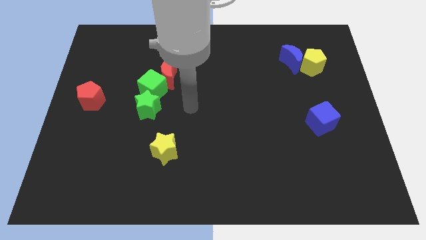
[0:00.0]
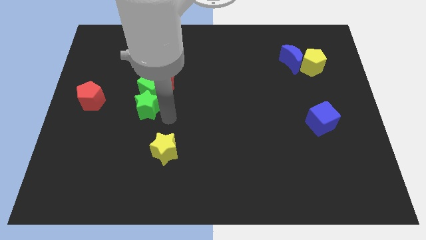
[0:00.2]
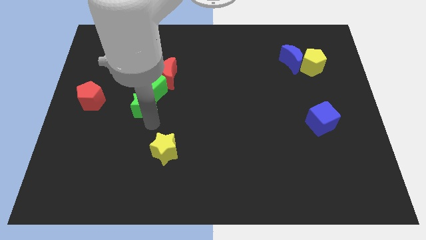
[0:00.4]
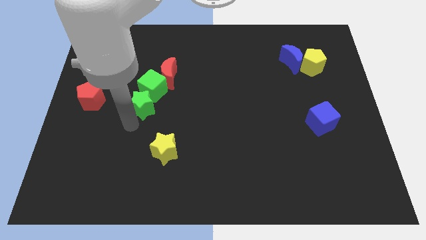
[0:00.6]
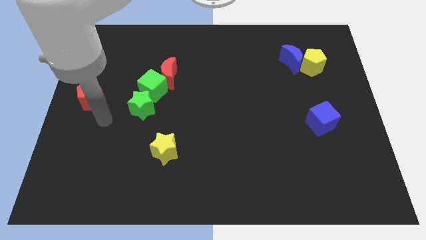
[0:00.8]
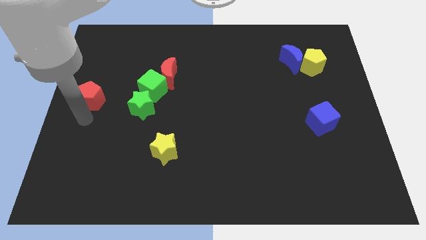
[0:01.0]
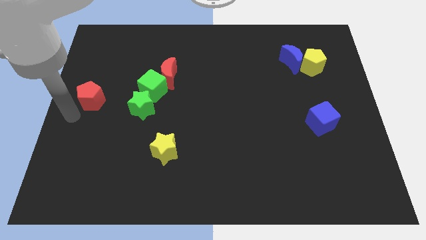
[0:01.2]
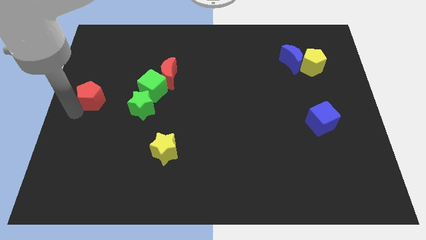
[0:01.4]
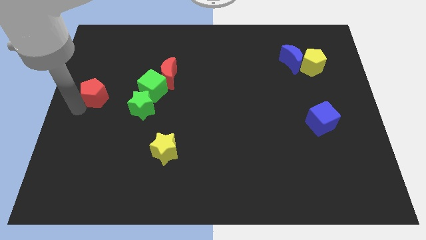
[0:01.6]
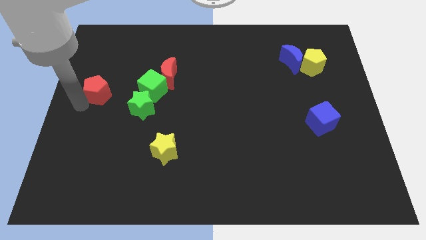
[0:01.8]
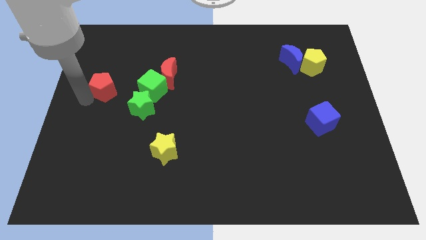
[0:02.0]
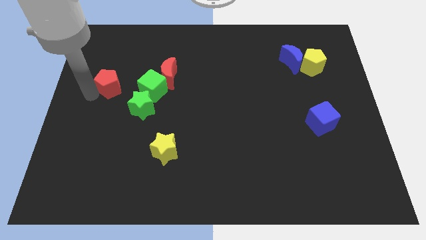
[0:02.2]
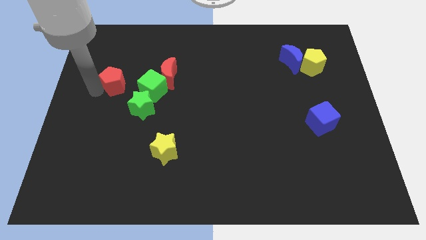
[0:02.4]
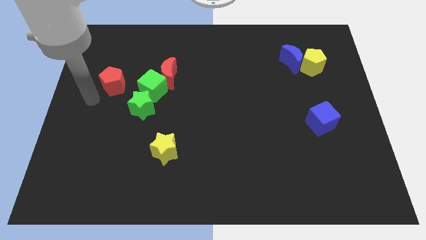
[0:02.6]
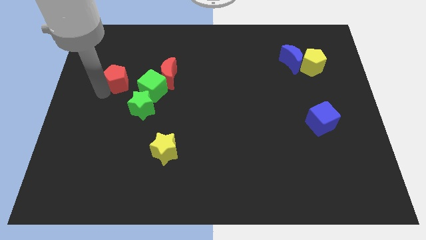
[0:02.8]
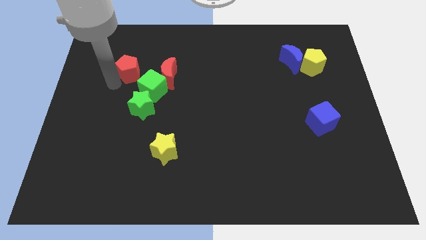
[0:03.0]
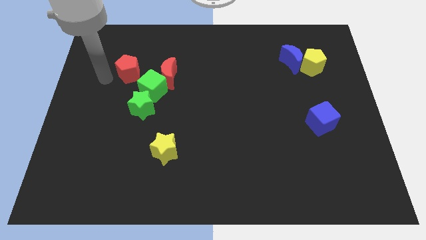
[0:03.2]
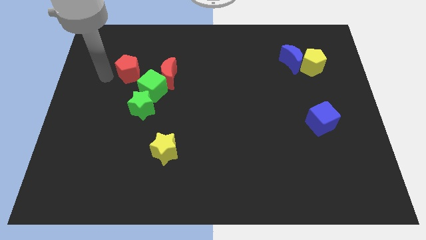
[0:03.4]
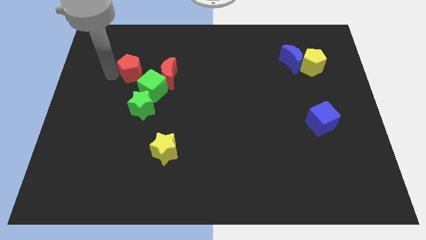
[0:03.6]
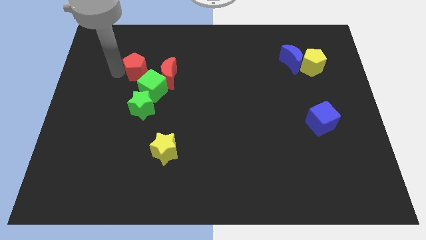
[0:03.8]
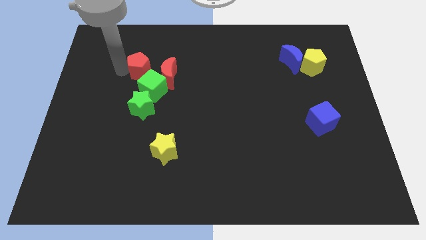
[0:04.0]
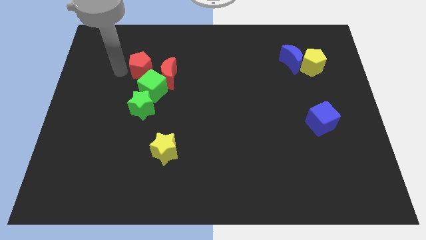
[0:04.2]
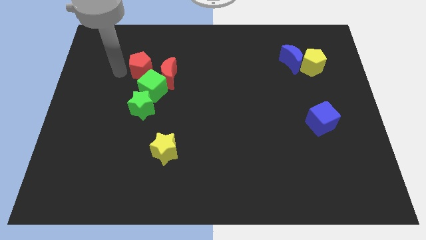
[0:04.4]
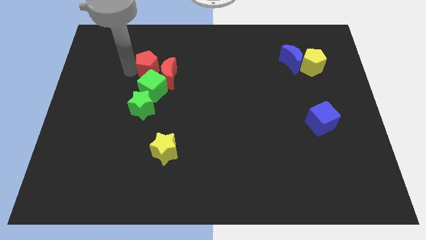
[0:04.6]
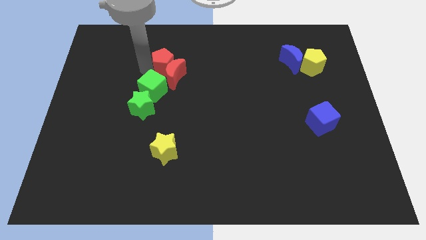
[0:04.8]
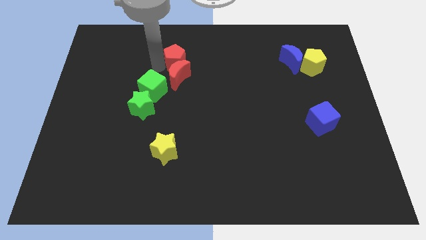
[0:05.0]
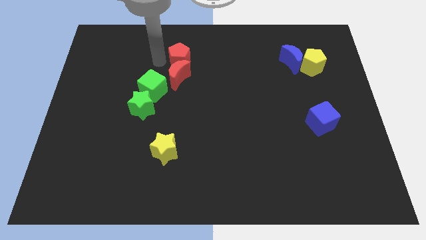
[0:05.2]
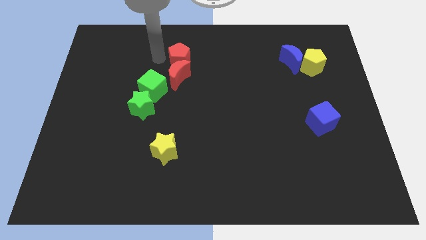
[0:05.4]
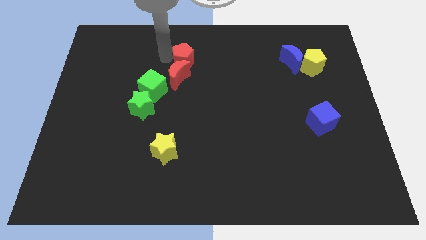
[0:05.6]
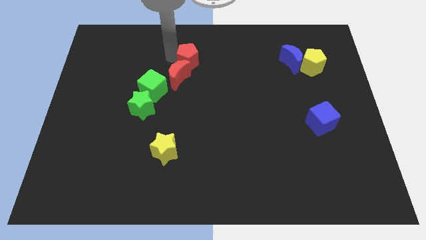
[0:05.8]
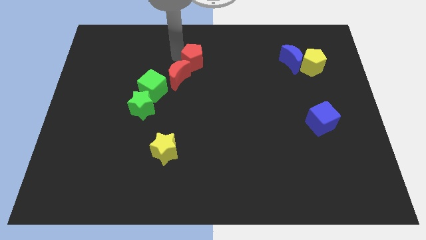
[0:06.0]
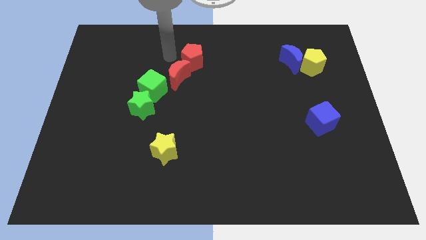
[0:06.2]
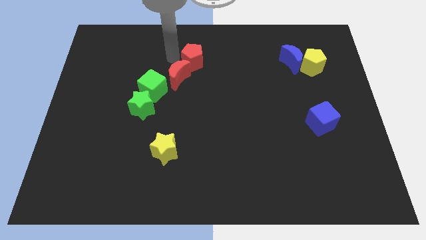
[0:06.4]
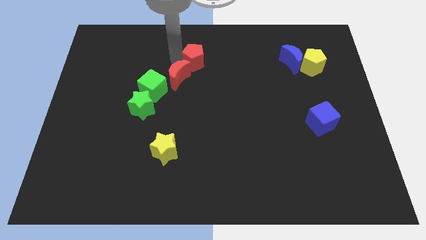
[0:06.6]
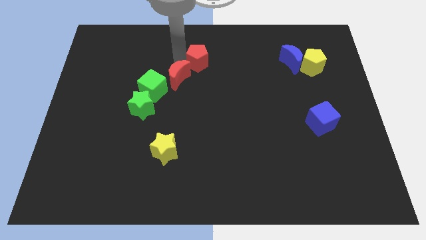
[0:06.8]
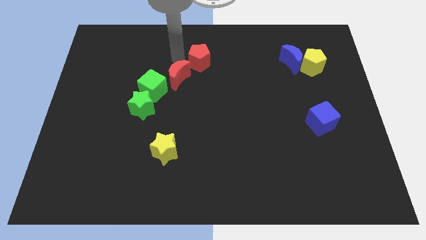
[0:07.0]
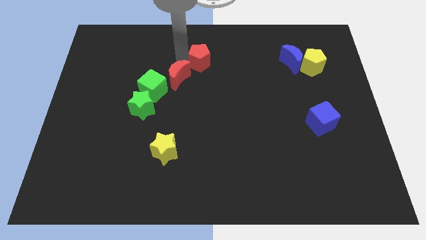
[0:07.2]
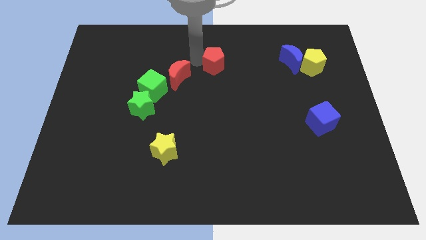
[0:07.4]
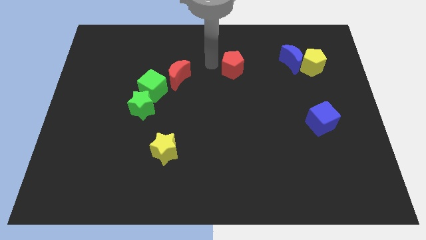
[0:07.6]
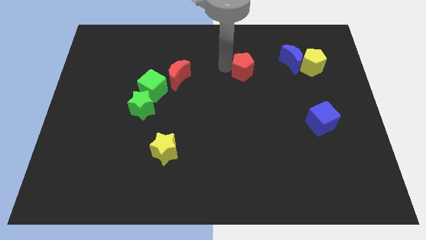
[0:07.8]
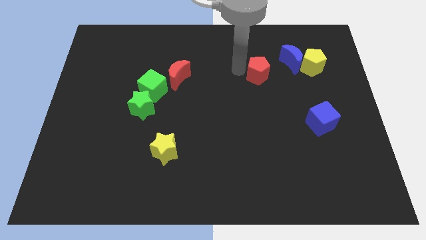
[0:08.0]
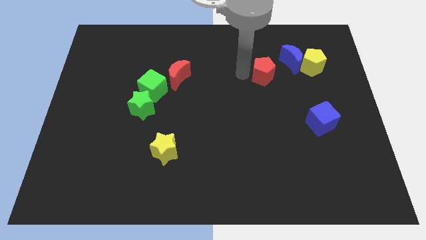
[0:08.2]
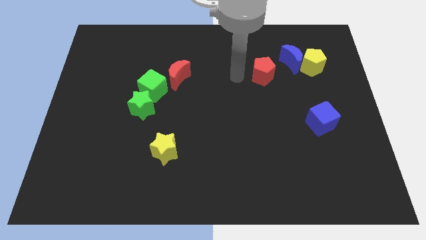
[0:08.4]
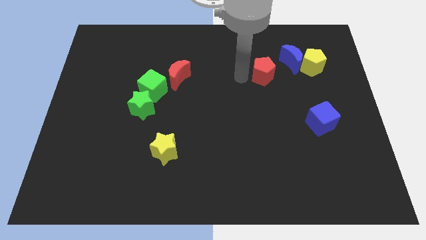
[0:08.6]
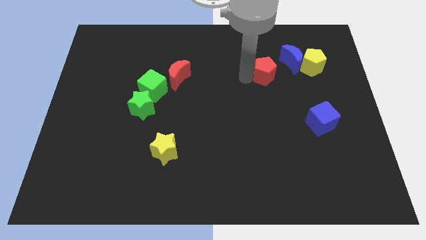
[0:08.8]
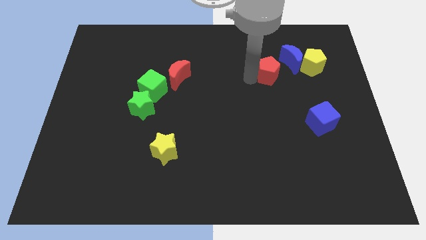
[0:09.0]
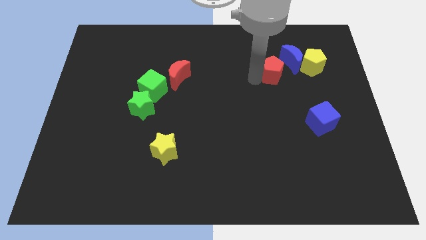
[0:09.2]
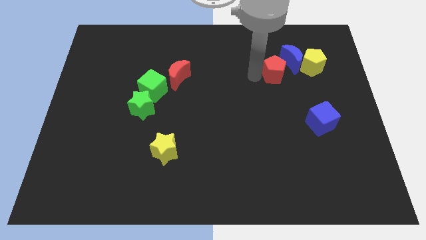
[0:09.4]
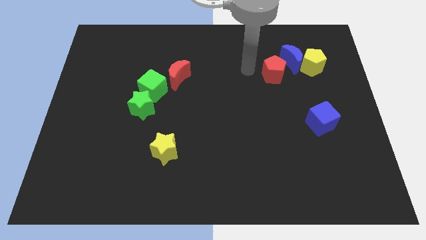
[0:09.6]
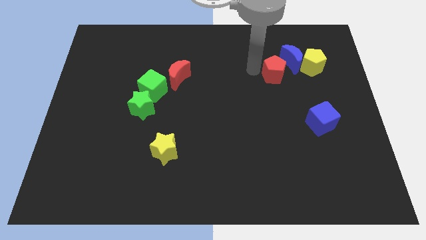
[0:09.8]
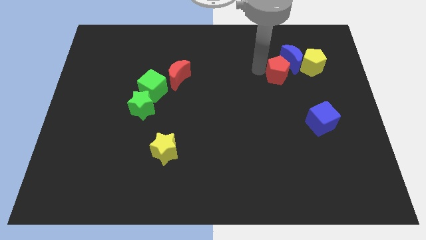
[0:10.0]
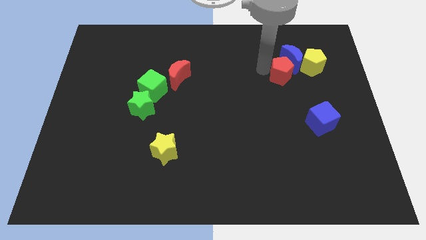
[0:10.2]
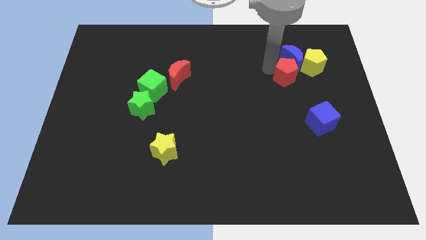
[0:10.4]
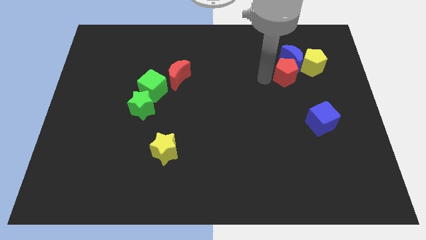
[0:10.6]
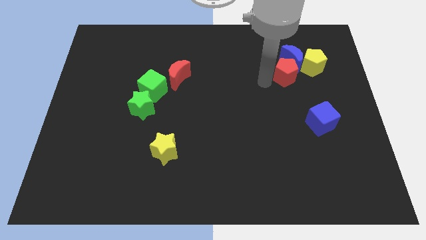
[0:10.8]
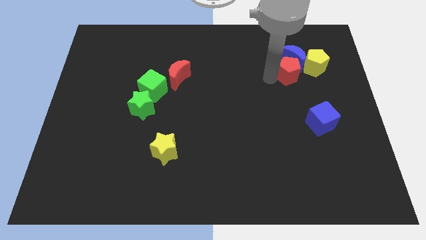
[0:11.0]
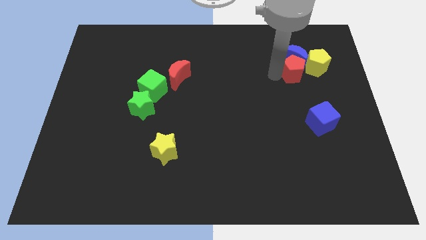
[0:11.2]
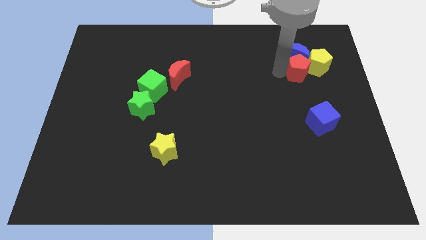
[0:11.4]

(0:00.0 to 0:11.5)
move the red pentagon to the yellow pentagon

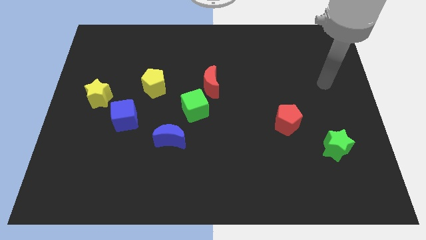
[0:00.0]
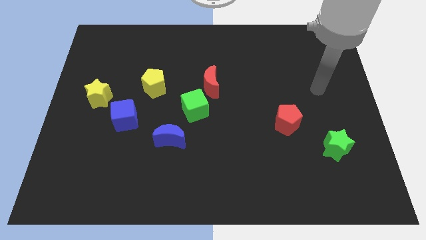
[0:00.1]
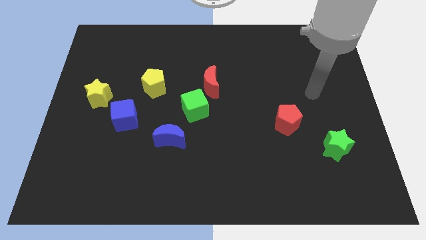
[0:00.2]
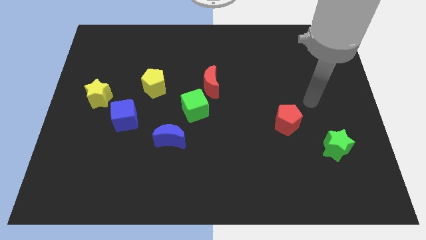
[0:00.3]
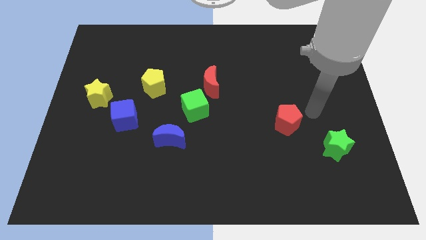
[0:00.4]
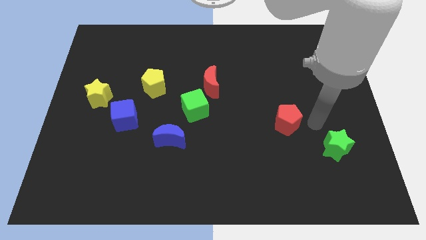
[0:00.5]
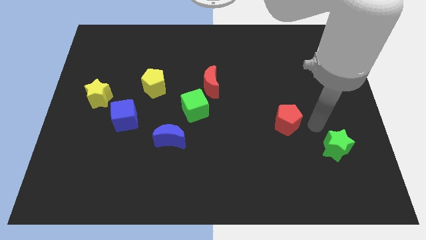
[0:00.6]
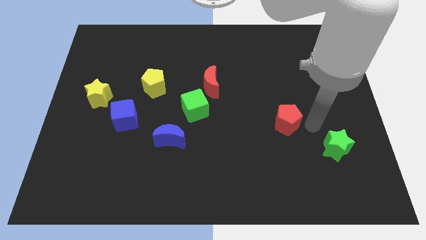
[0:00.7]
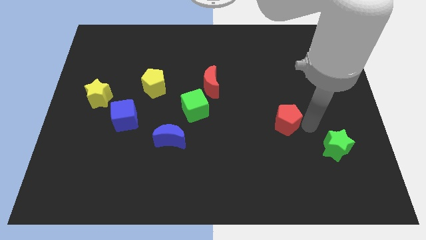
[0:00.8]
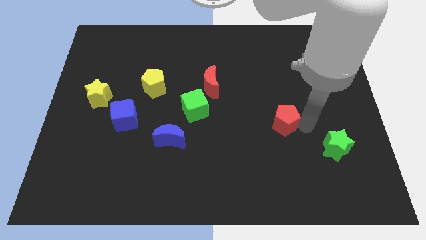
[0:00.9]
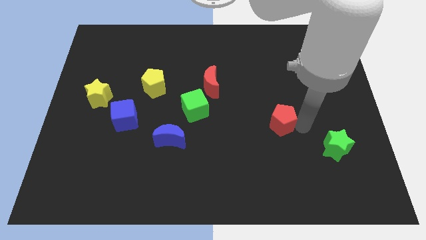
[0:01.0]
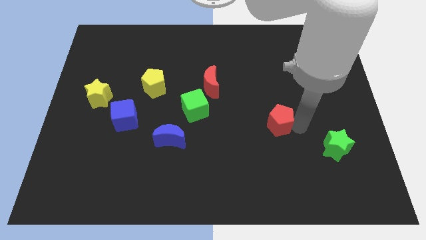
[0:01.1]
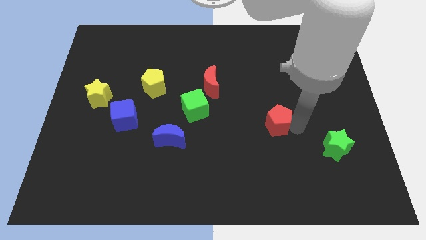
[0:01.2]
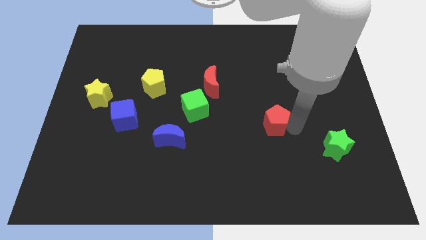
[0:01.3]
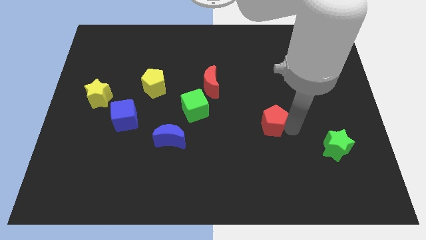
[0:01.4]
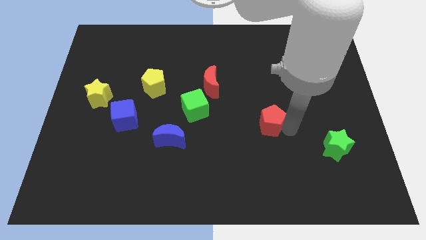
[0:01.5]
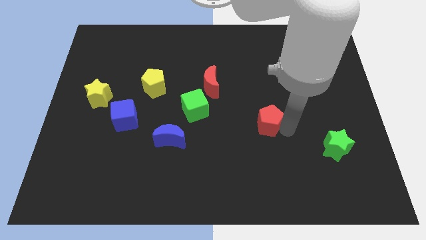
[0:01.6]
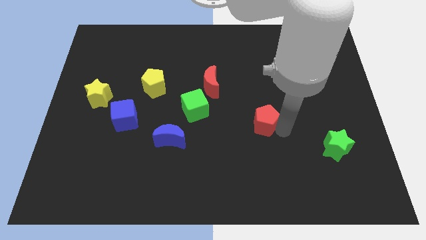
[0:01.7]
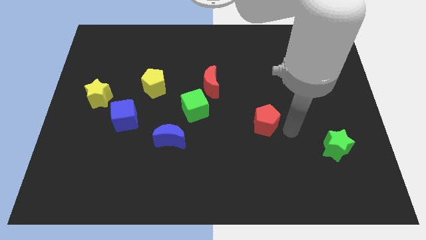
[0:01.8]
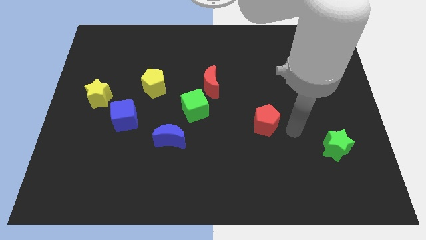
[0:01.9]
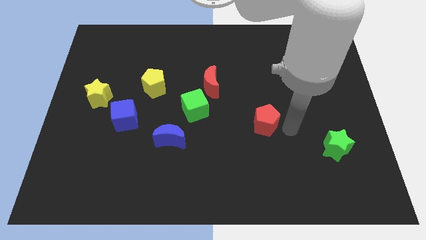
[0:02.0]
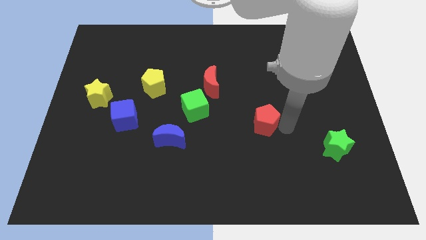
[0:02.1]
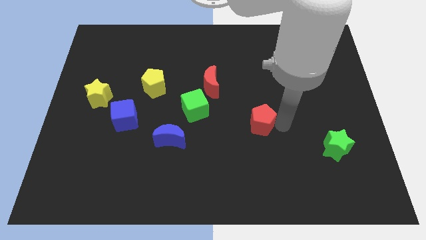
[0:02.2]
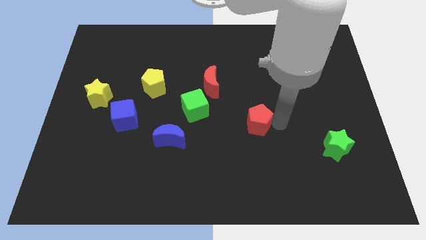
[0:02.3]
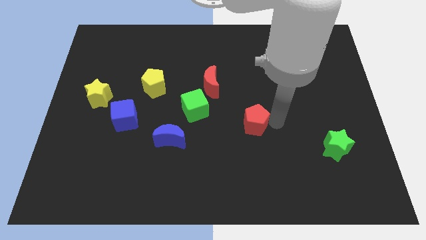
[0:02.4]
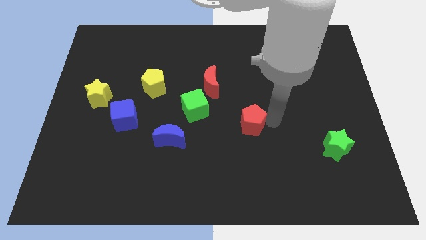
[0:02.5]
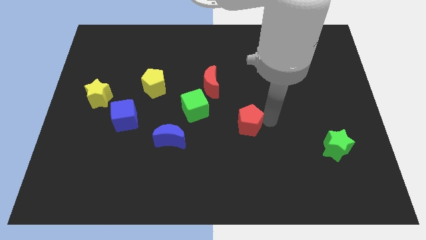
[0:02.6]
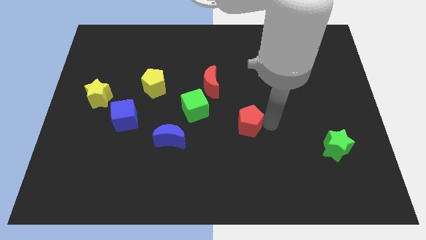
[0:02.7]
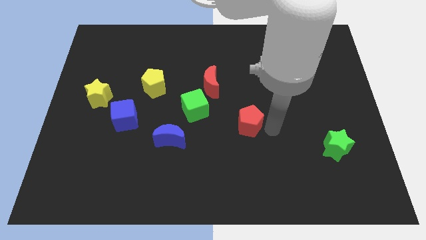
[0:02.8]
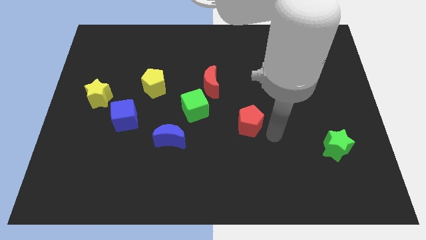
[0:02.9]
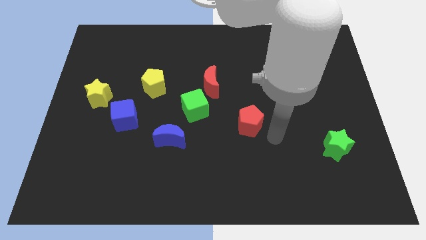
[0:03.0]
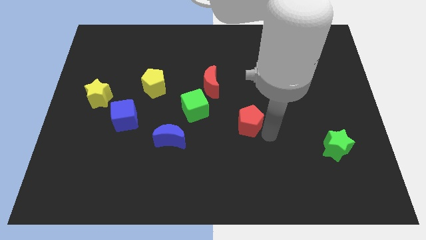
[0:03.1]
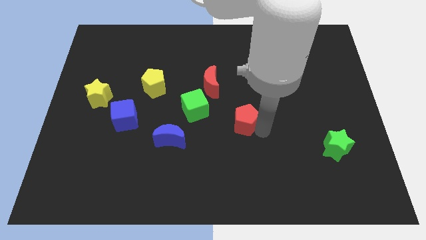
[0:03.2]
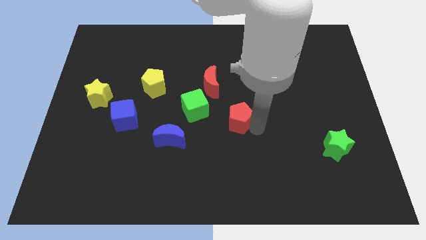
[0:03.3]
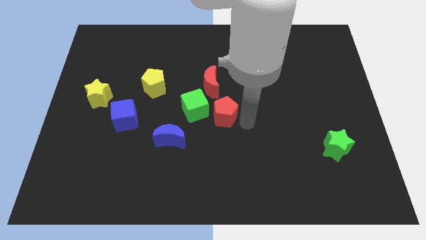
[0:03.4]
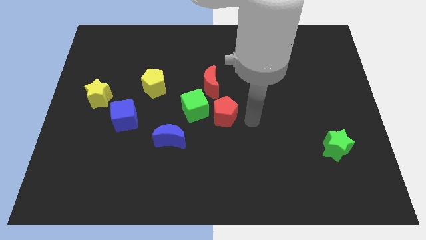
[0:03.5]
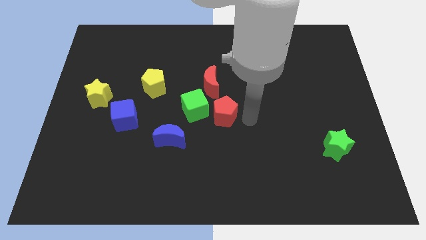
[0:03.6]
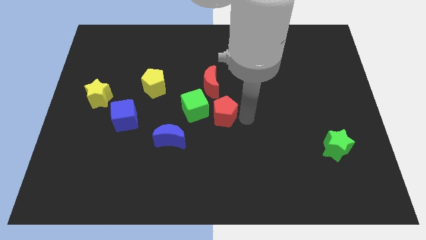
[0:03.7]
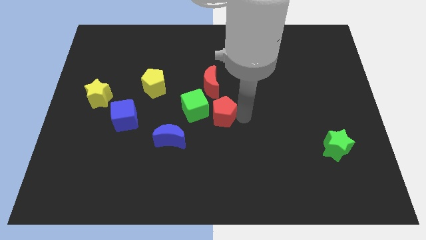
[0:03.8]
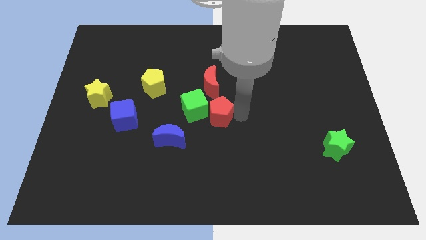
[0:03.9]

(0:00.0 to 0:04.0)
slide the red pentagon towards the green cube
